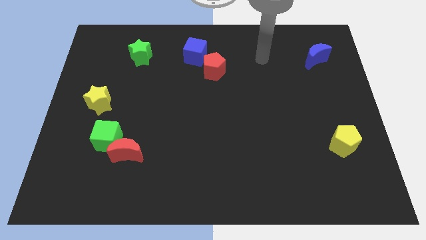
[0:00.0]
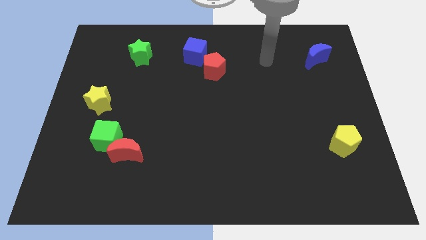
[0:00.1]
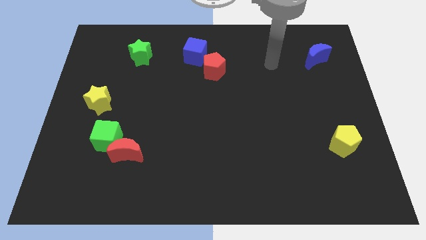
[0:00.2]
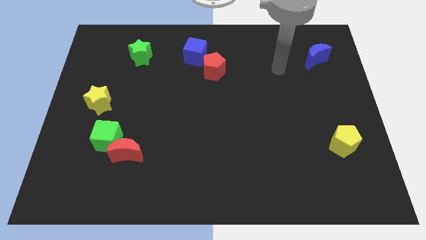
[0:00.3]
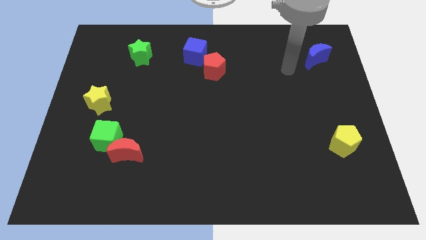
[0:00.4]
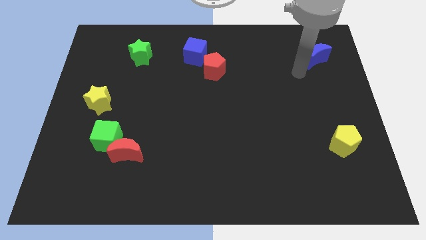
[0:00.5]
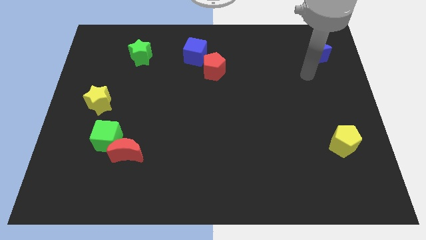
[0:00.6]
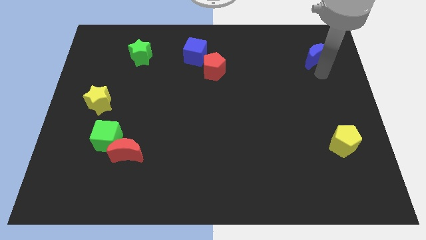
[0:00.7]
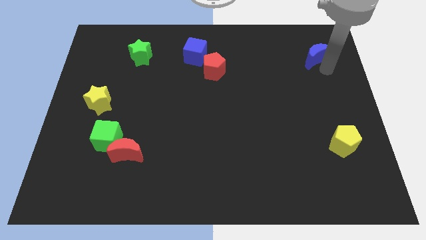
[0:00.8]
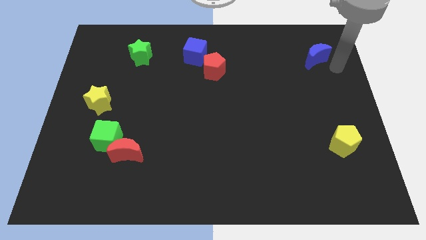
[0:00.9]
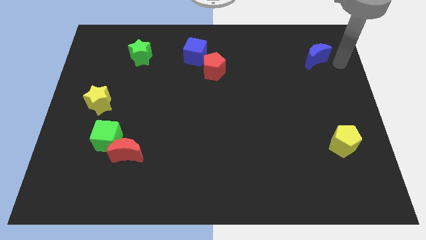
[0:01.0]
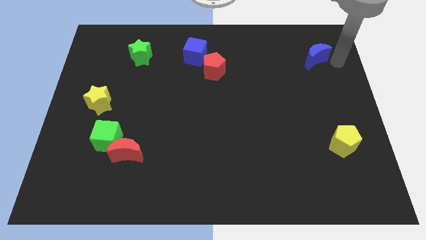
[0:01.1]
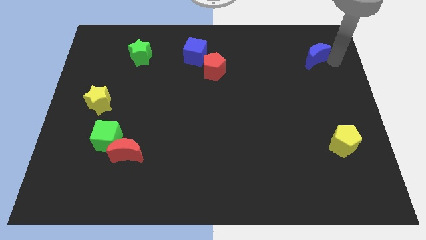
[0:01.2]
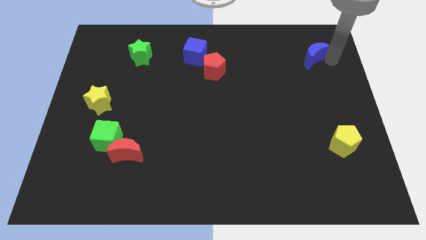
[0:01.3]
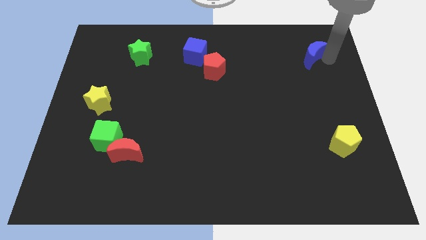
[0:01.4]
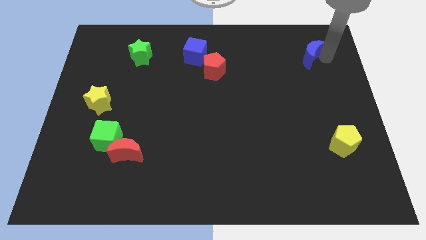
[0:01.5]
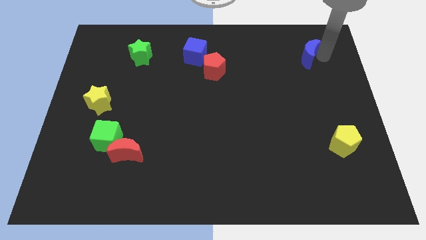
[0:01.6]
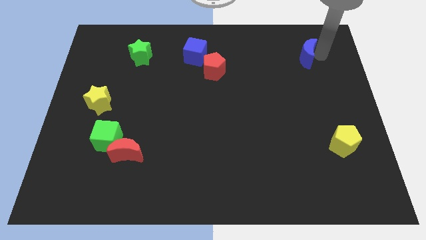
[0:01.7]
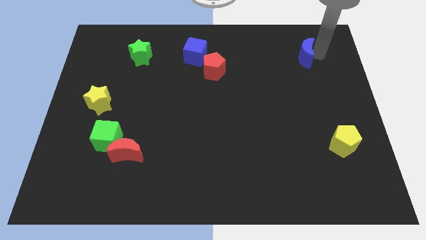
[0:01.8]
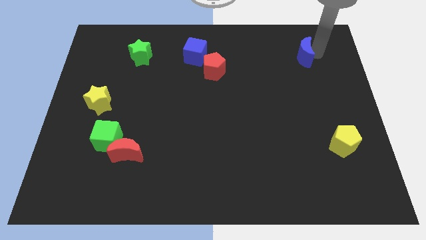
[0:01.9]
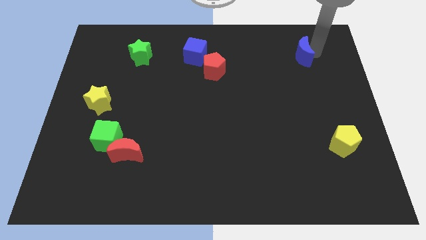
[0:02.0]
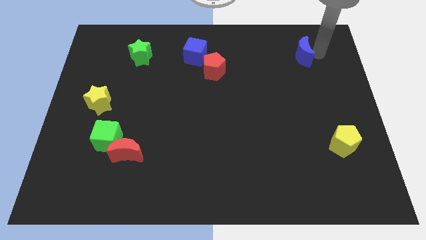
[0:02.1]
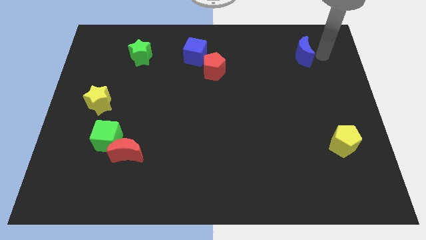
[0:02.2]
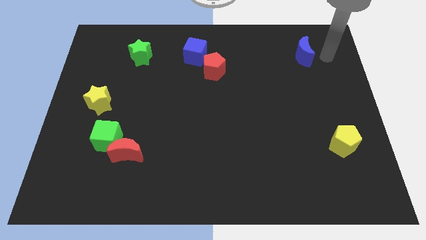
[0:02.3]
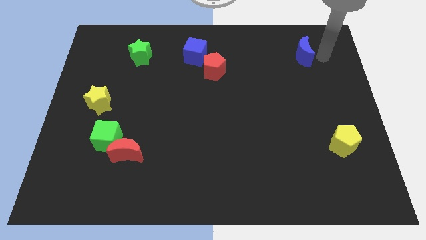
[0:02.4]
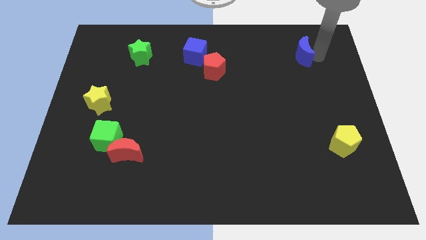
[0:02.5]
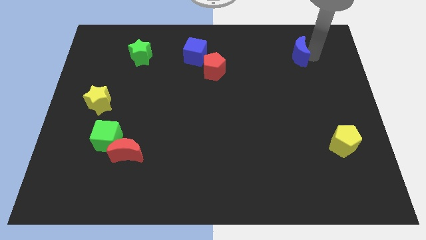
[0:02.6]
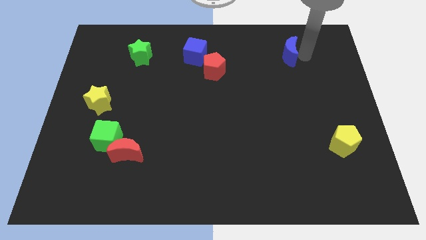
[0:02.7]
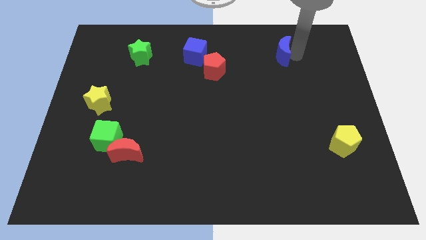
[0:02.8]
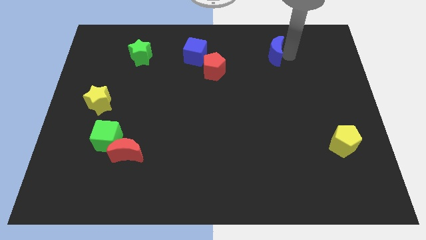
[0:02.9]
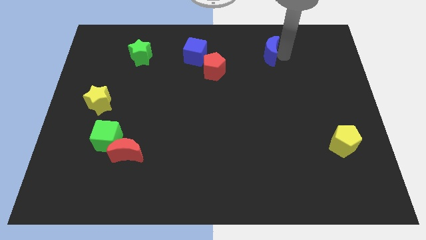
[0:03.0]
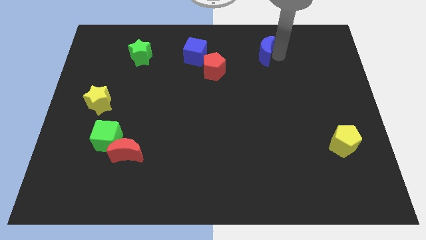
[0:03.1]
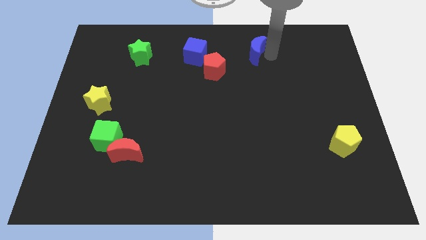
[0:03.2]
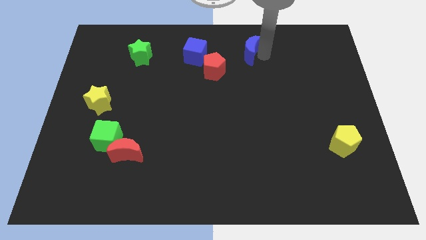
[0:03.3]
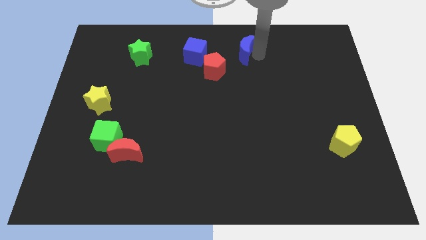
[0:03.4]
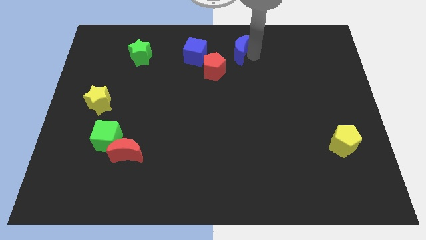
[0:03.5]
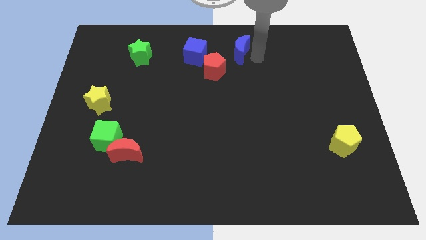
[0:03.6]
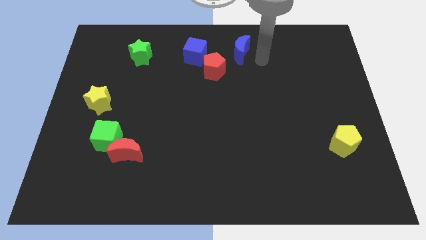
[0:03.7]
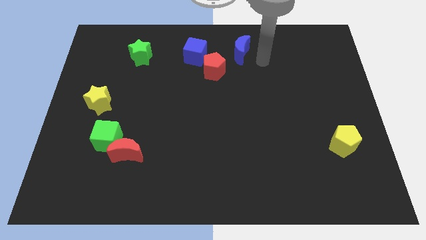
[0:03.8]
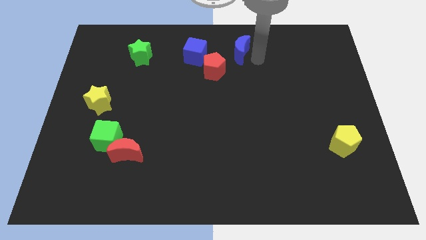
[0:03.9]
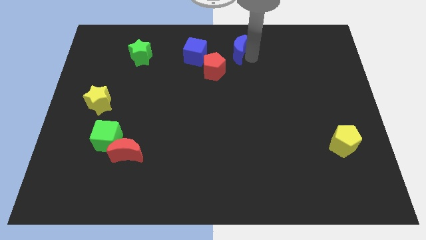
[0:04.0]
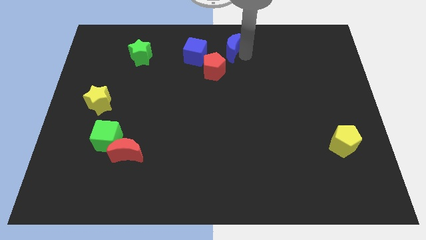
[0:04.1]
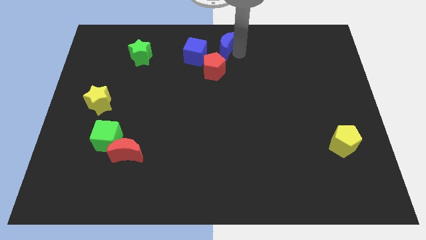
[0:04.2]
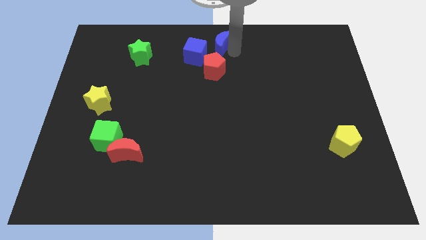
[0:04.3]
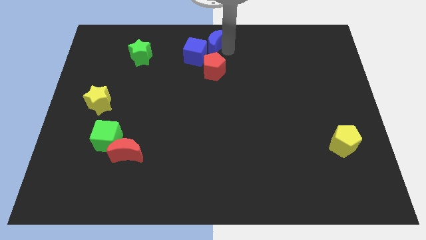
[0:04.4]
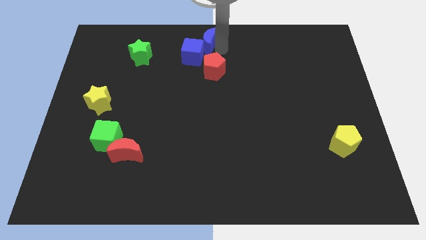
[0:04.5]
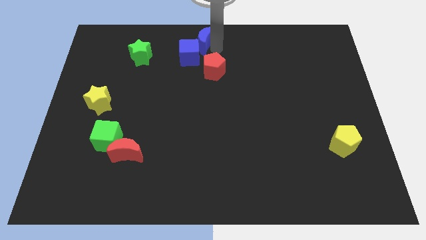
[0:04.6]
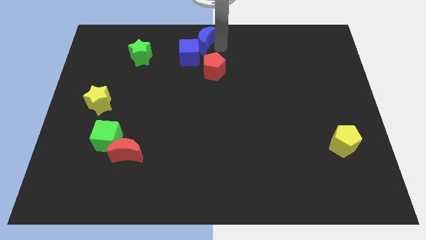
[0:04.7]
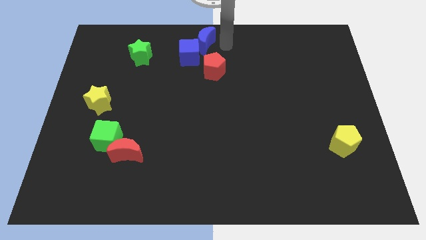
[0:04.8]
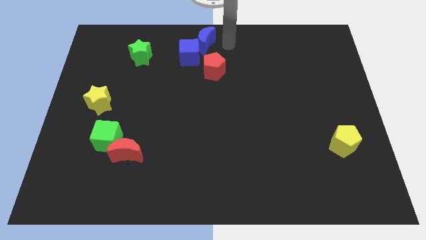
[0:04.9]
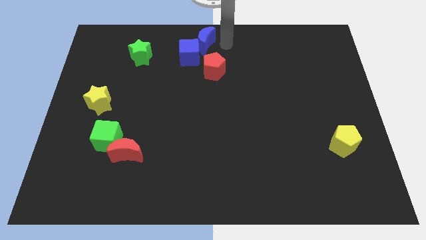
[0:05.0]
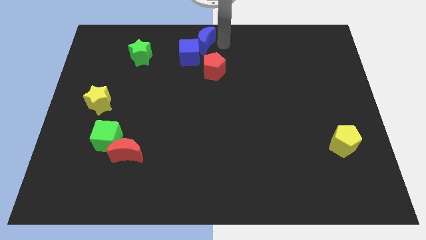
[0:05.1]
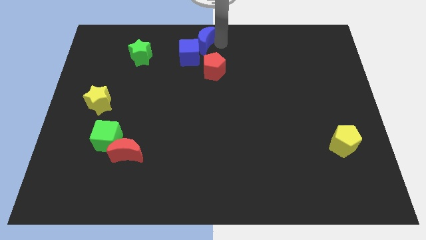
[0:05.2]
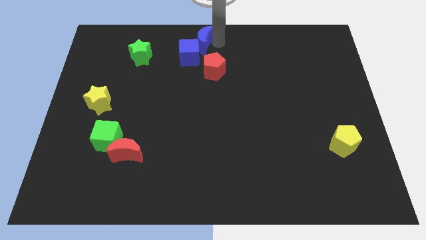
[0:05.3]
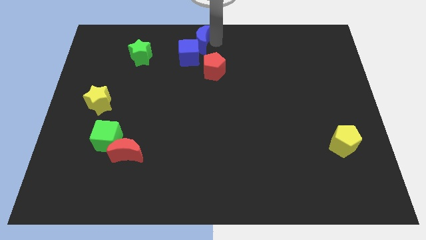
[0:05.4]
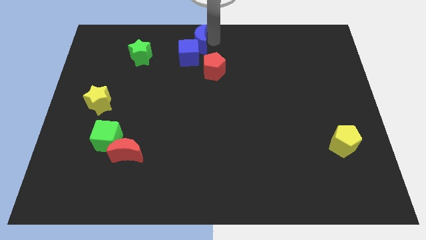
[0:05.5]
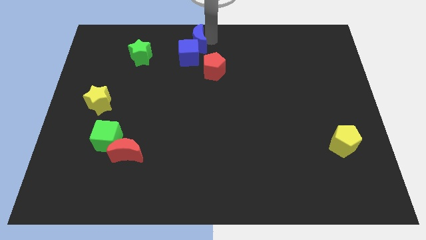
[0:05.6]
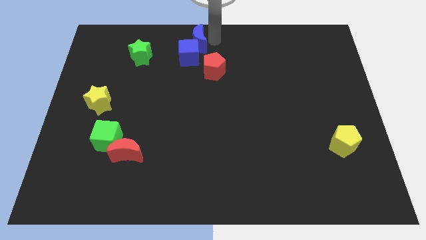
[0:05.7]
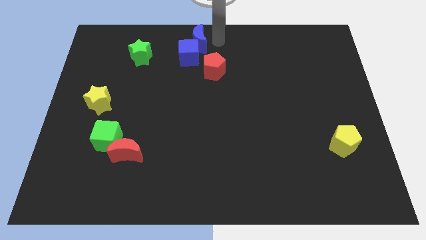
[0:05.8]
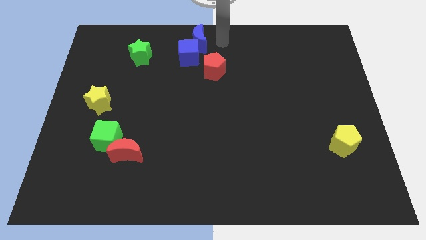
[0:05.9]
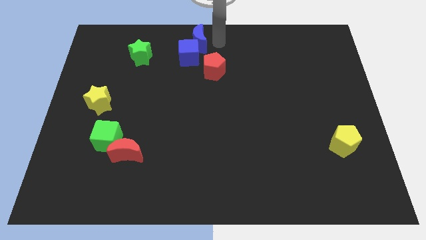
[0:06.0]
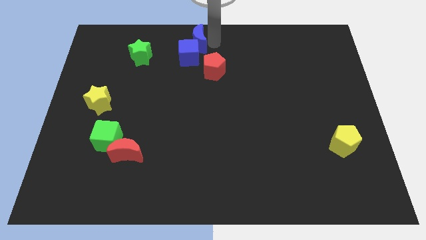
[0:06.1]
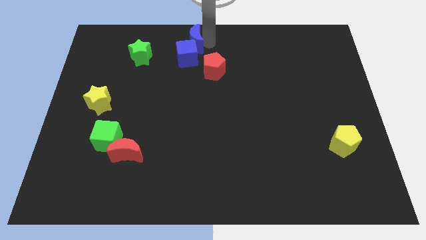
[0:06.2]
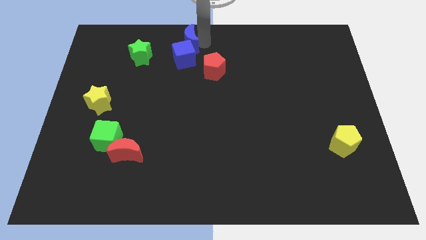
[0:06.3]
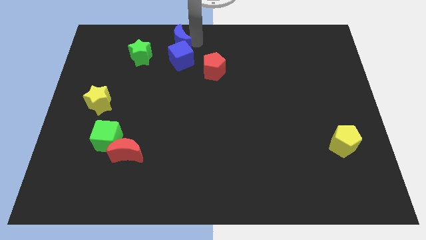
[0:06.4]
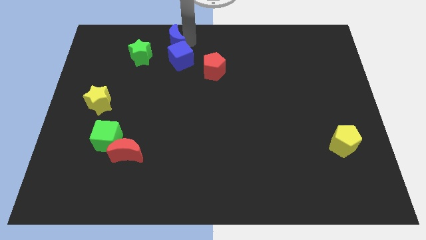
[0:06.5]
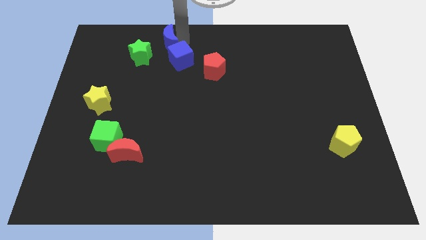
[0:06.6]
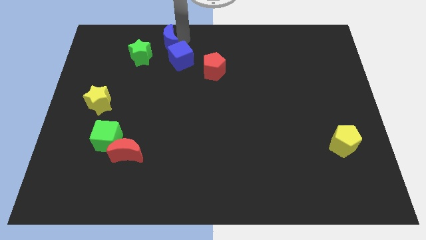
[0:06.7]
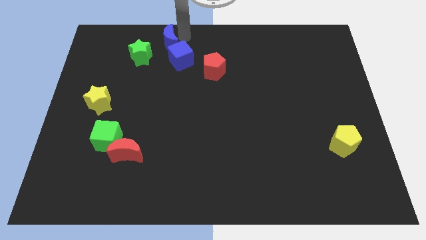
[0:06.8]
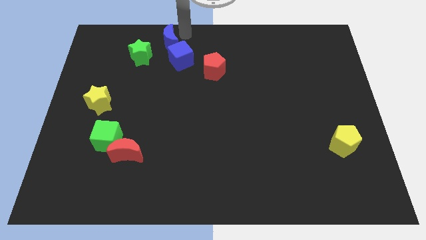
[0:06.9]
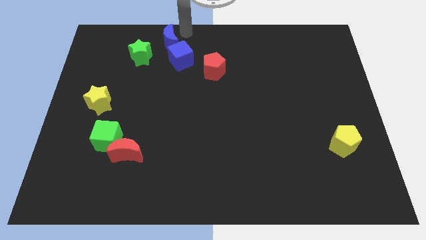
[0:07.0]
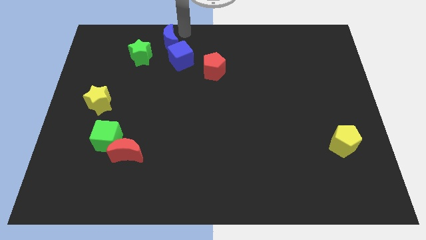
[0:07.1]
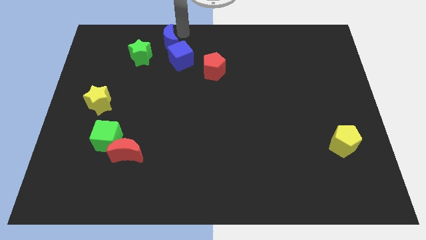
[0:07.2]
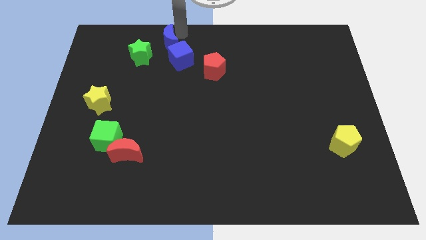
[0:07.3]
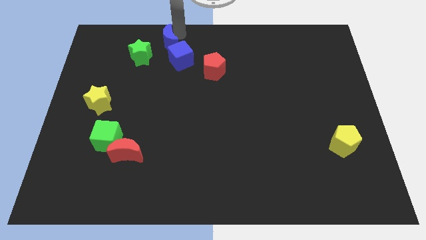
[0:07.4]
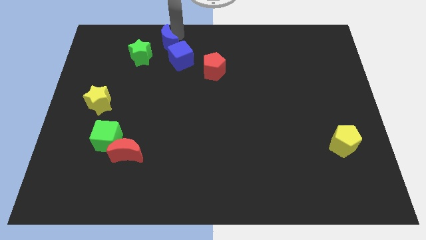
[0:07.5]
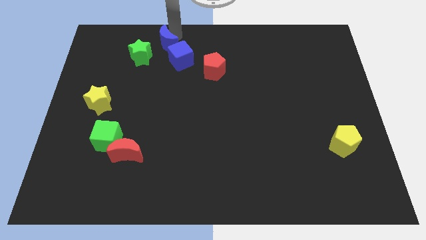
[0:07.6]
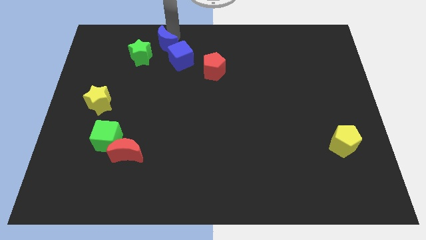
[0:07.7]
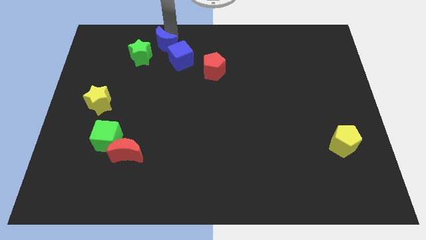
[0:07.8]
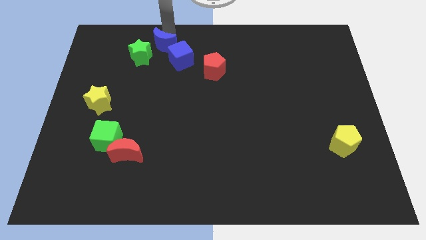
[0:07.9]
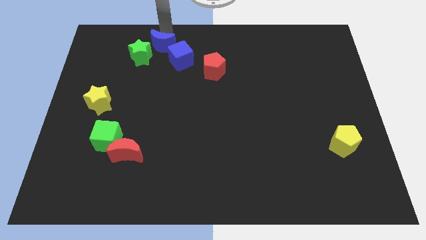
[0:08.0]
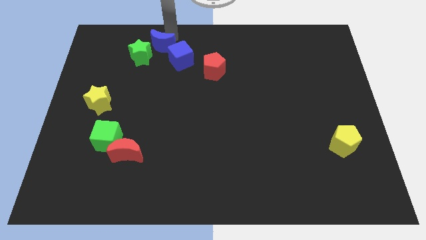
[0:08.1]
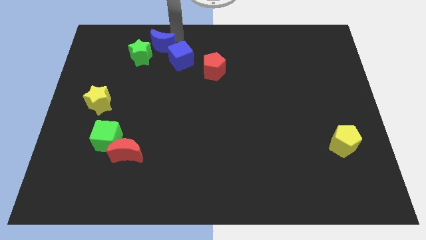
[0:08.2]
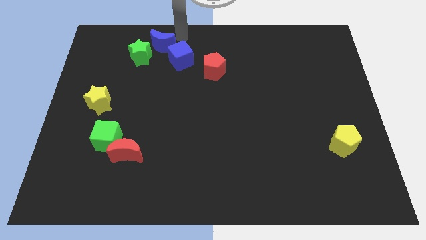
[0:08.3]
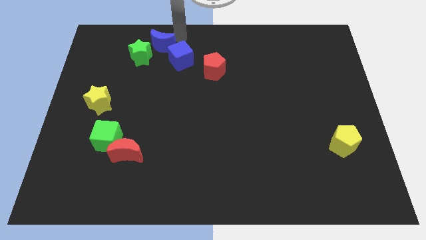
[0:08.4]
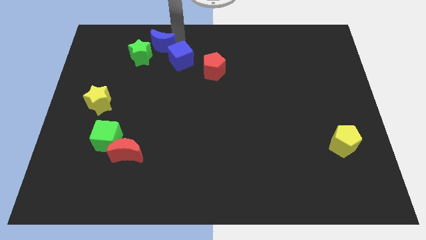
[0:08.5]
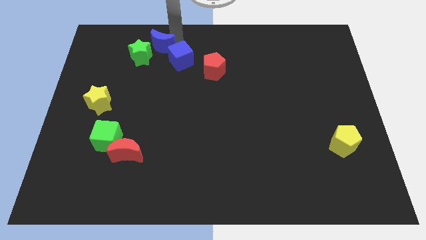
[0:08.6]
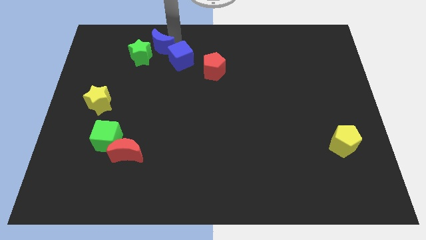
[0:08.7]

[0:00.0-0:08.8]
push the blue moon to the green star
